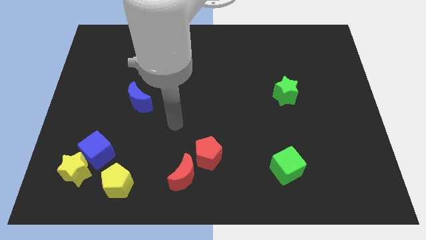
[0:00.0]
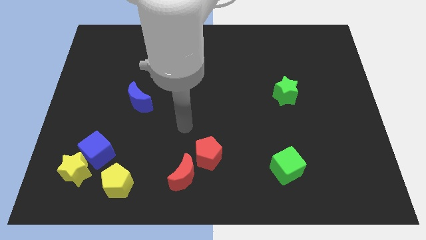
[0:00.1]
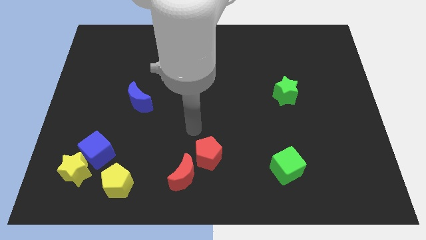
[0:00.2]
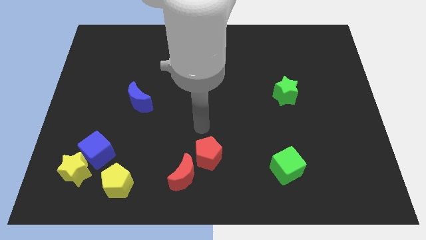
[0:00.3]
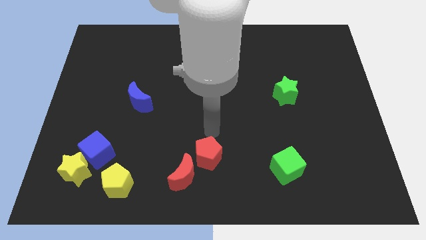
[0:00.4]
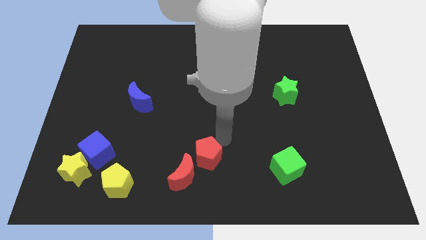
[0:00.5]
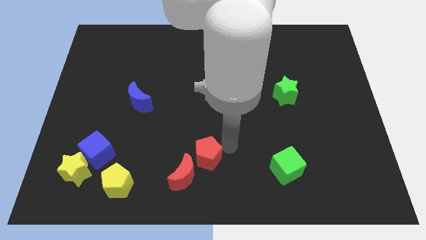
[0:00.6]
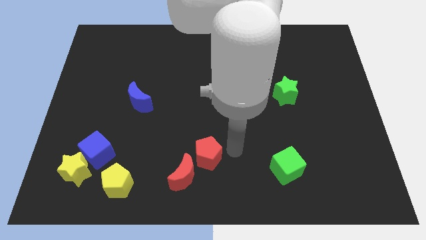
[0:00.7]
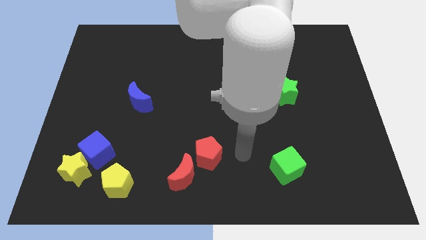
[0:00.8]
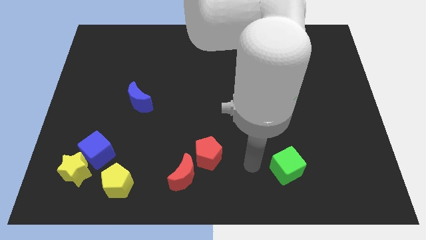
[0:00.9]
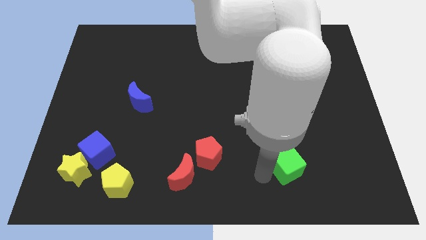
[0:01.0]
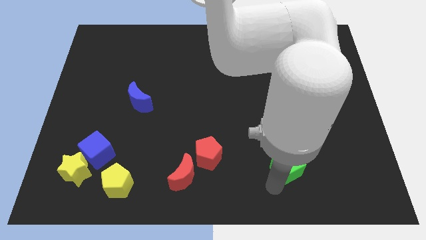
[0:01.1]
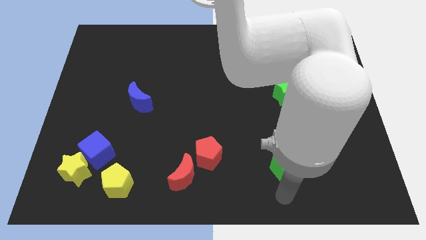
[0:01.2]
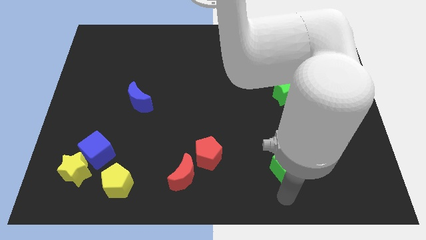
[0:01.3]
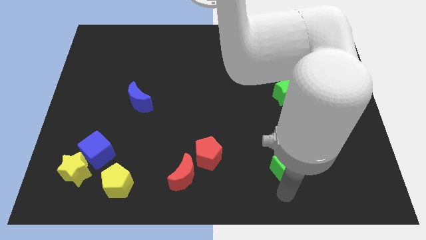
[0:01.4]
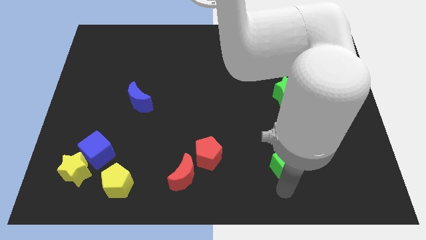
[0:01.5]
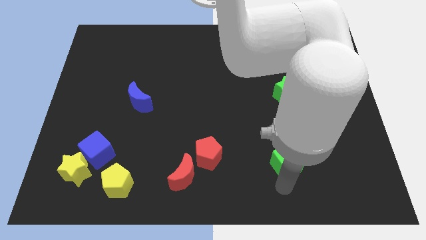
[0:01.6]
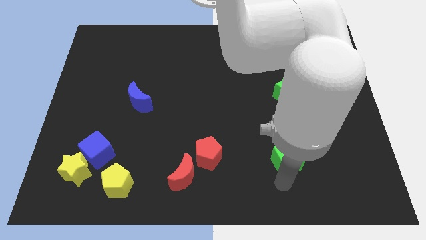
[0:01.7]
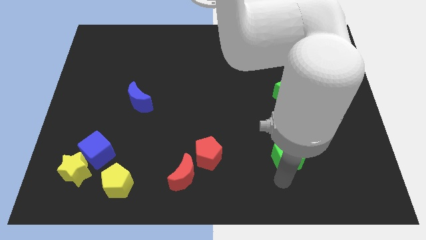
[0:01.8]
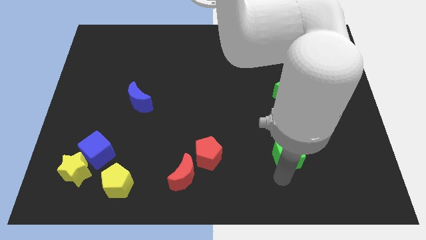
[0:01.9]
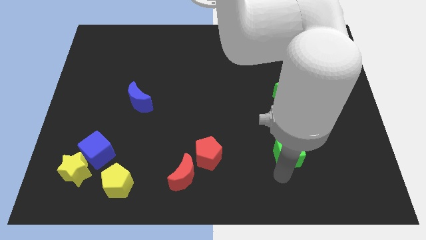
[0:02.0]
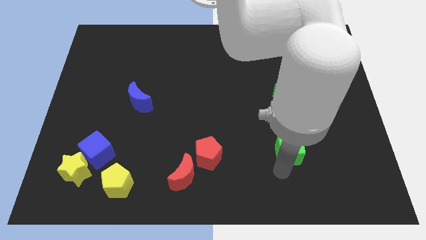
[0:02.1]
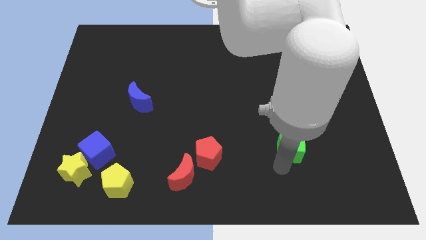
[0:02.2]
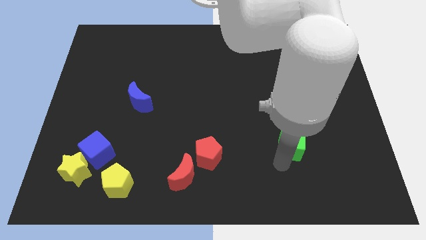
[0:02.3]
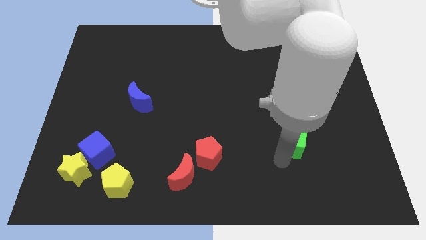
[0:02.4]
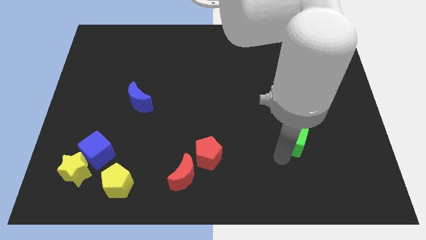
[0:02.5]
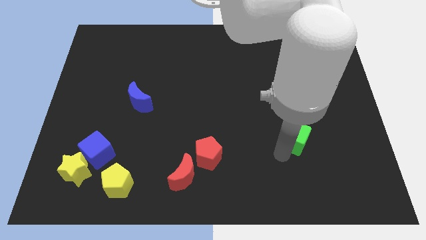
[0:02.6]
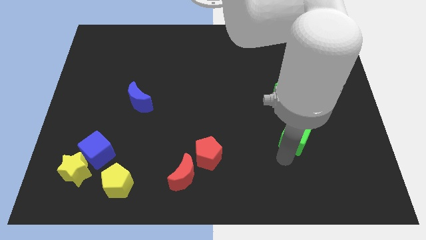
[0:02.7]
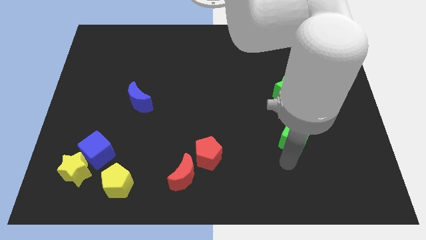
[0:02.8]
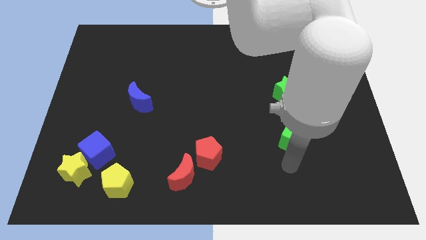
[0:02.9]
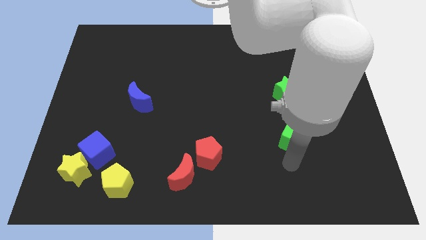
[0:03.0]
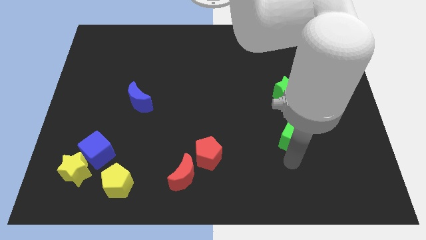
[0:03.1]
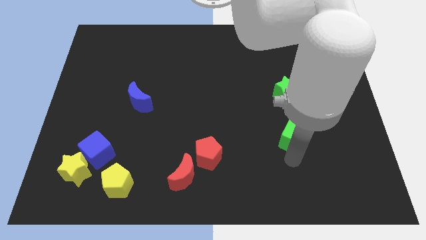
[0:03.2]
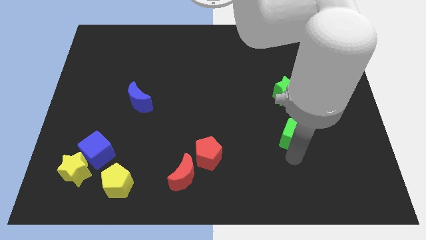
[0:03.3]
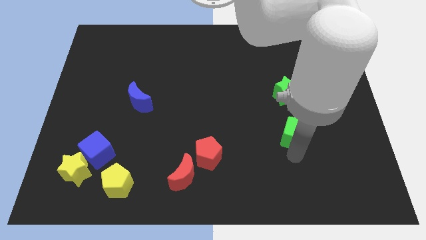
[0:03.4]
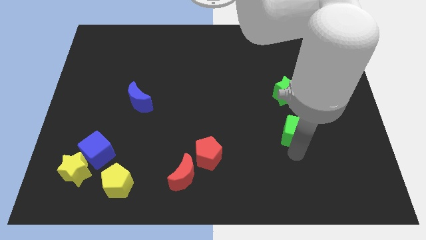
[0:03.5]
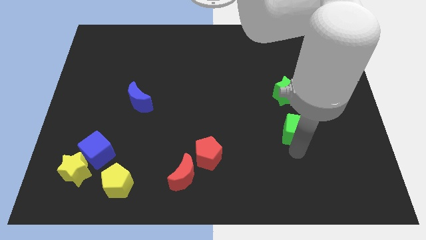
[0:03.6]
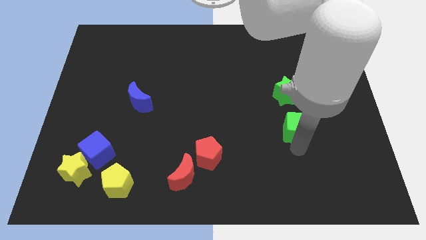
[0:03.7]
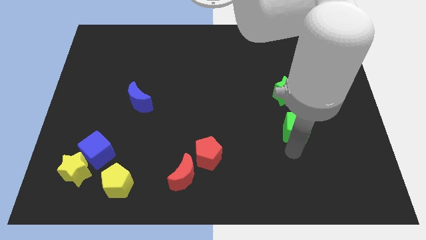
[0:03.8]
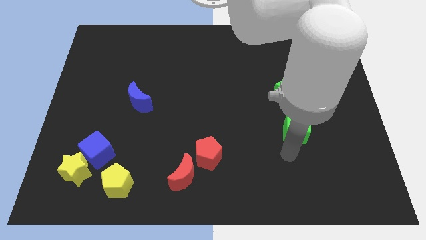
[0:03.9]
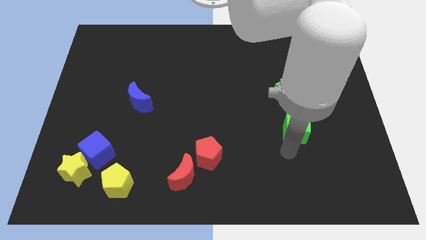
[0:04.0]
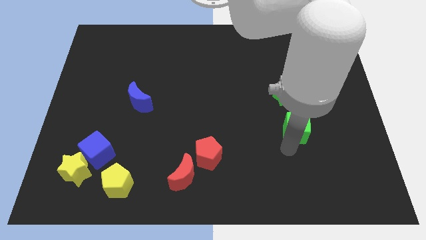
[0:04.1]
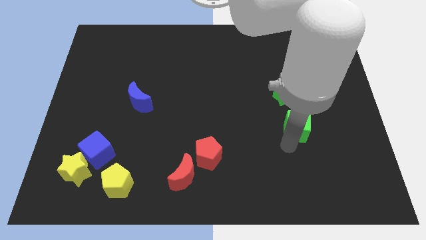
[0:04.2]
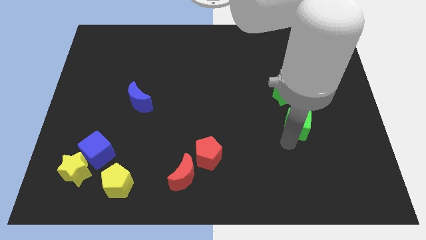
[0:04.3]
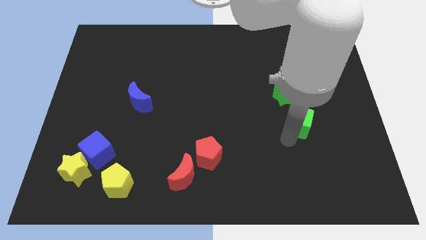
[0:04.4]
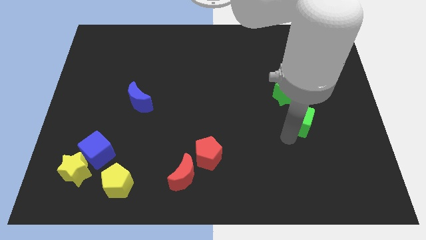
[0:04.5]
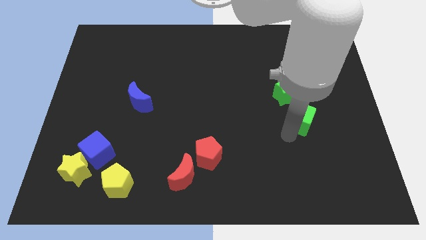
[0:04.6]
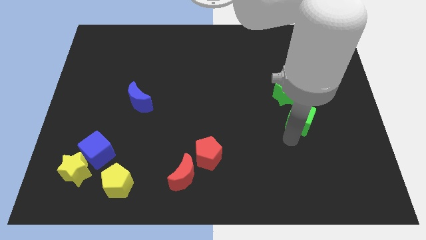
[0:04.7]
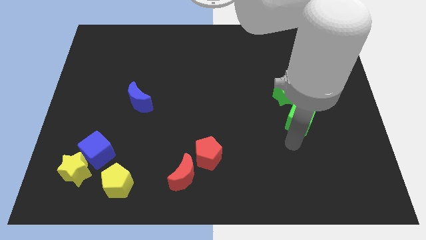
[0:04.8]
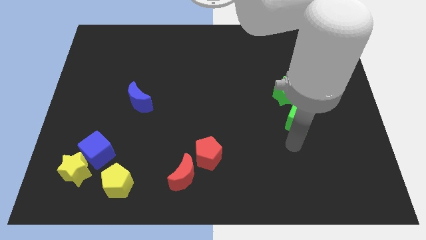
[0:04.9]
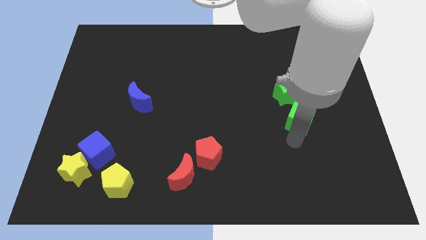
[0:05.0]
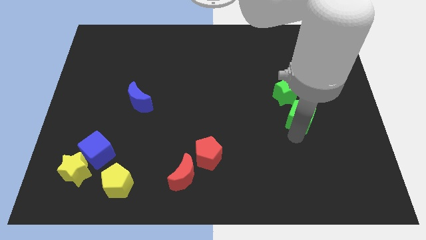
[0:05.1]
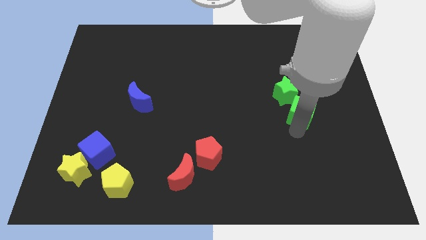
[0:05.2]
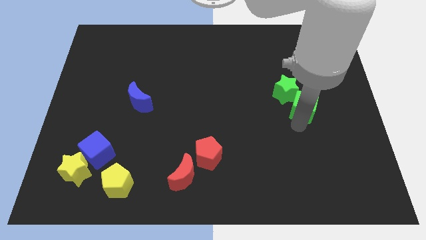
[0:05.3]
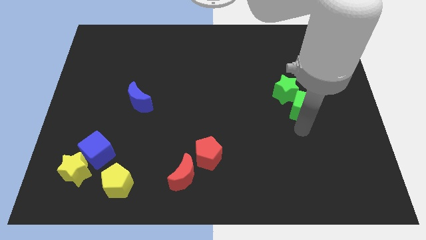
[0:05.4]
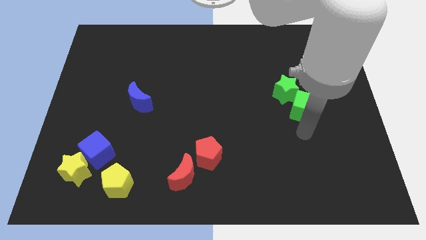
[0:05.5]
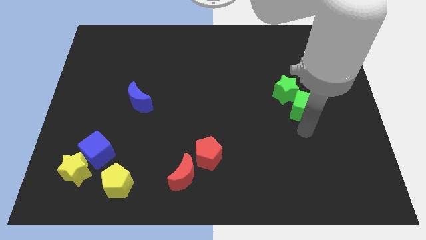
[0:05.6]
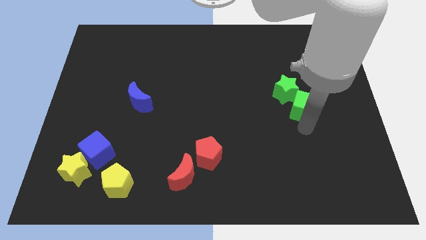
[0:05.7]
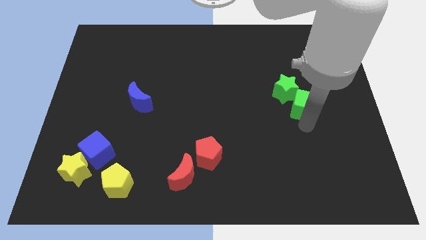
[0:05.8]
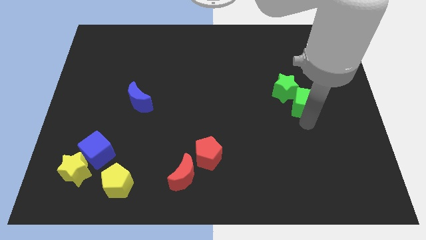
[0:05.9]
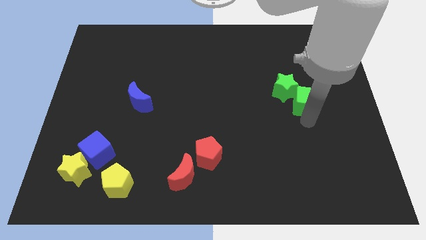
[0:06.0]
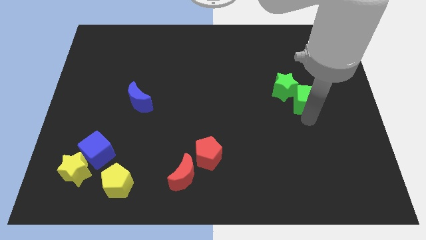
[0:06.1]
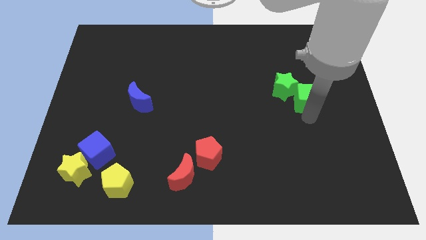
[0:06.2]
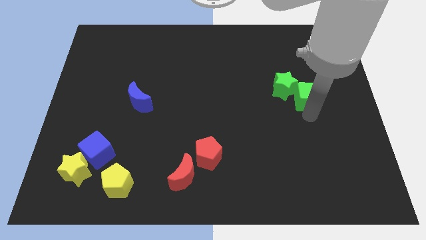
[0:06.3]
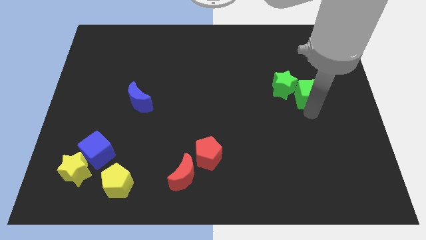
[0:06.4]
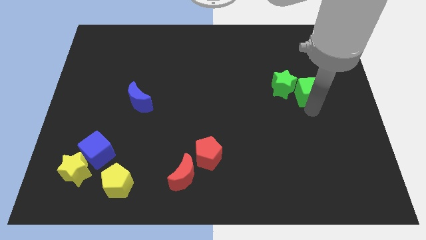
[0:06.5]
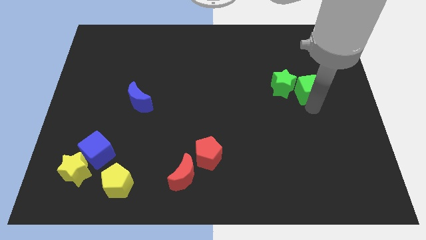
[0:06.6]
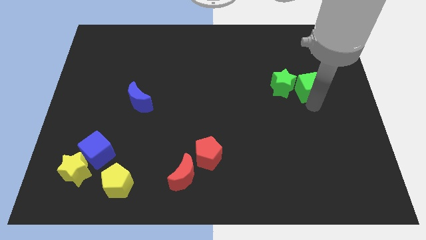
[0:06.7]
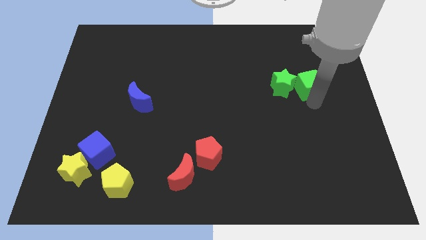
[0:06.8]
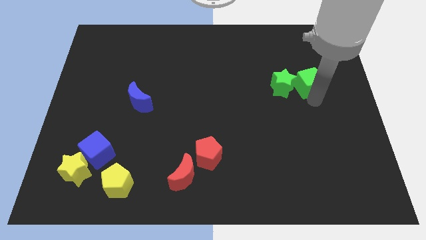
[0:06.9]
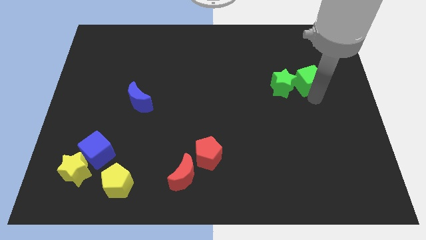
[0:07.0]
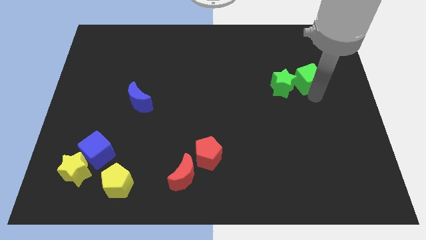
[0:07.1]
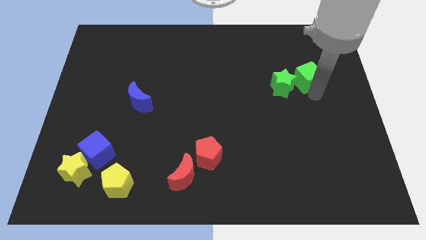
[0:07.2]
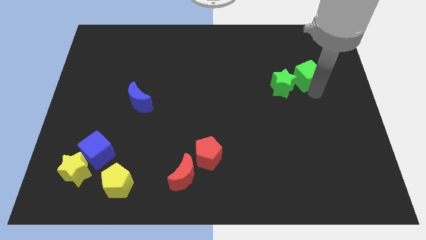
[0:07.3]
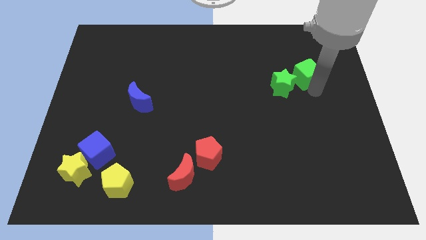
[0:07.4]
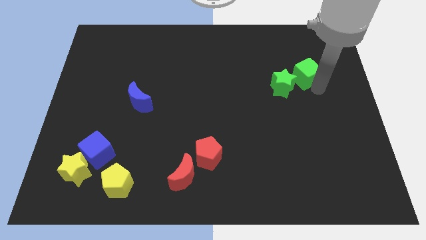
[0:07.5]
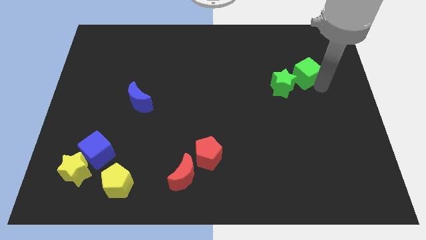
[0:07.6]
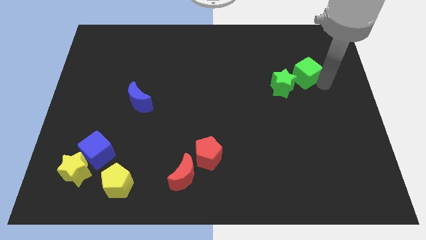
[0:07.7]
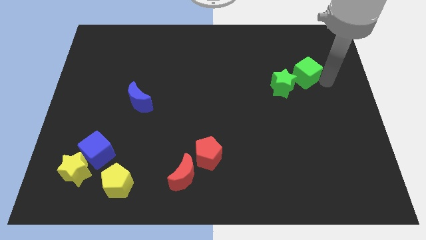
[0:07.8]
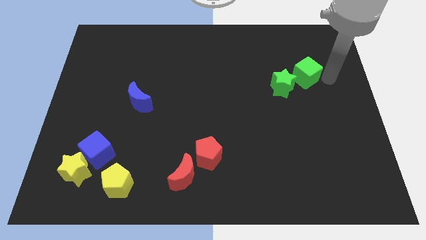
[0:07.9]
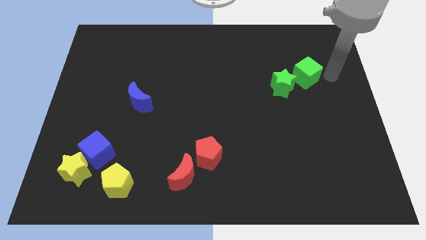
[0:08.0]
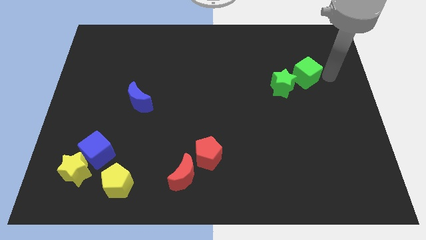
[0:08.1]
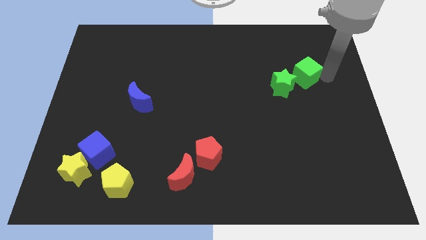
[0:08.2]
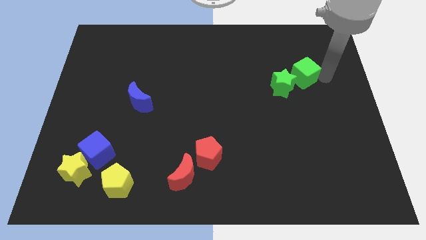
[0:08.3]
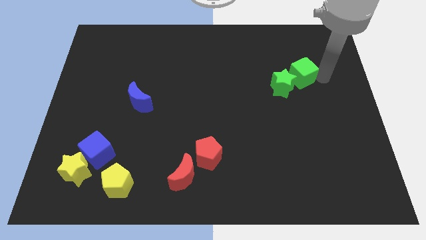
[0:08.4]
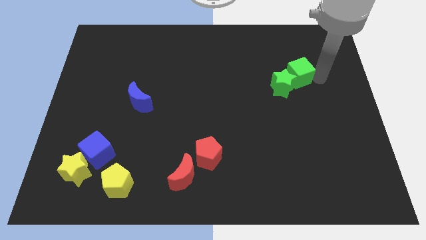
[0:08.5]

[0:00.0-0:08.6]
push the green cube to the top side of the green star
